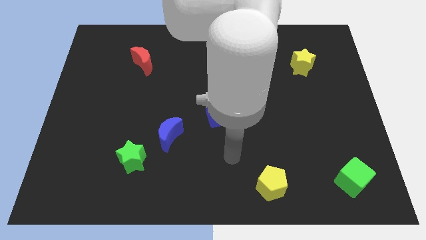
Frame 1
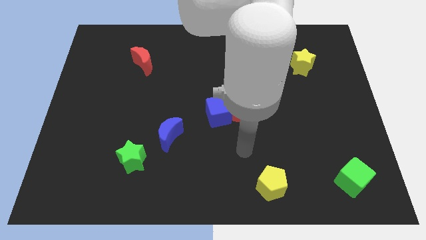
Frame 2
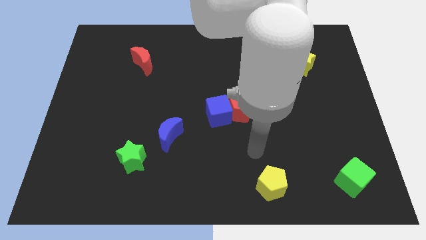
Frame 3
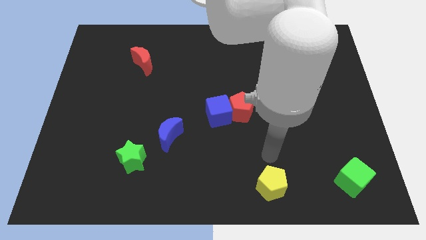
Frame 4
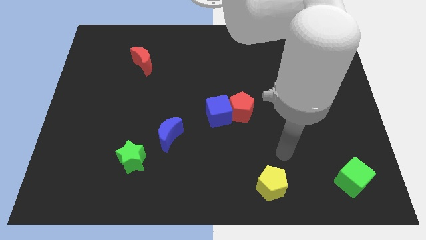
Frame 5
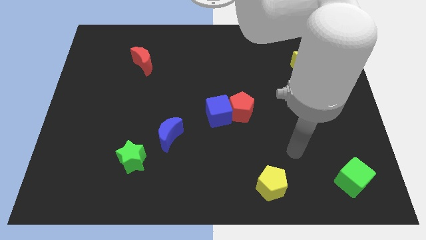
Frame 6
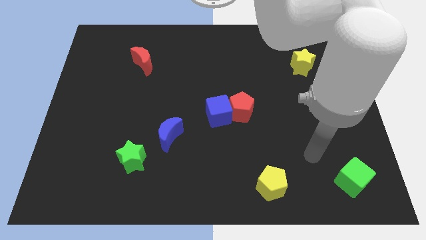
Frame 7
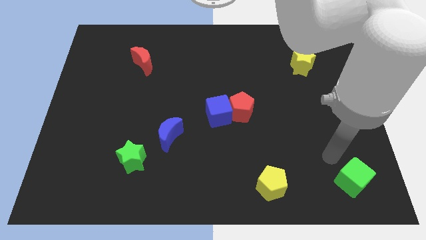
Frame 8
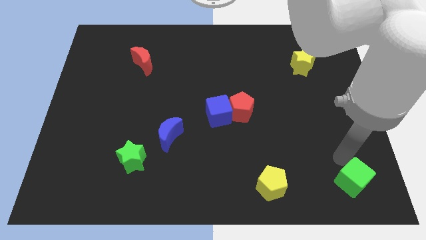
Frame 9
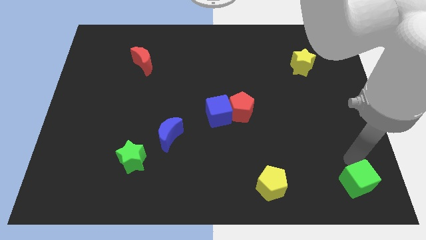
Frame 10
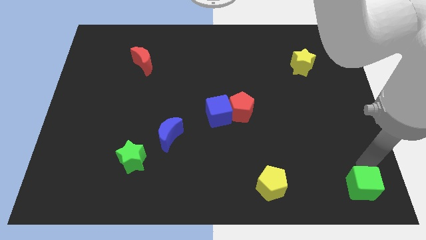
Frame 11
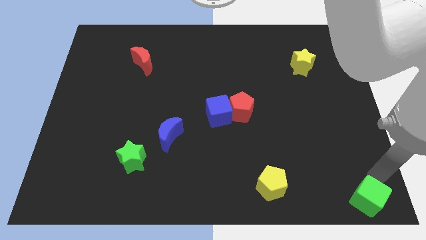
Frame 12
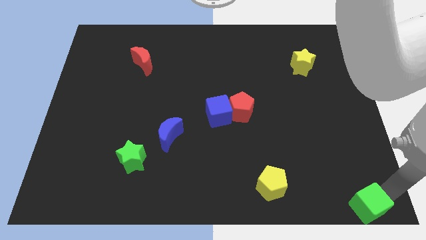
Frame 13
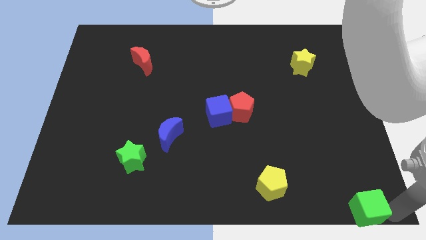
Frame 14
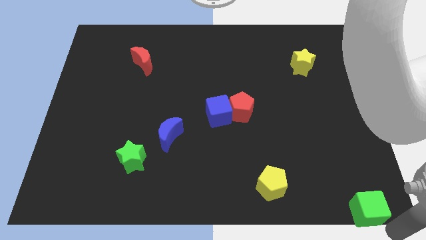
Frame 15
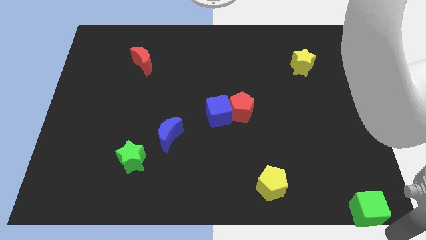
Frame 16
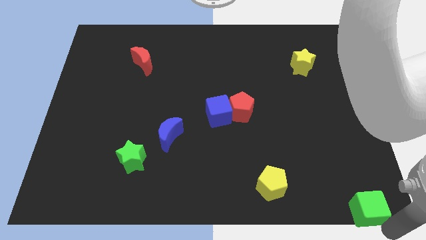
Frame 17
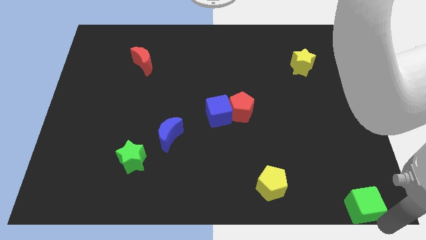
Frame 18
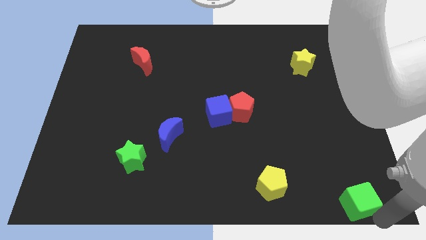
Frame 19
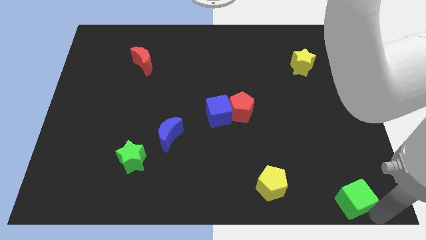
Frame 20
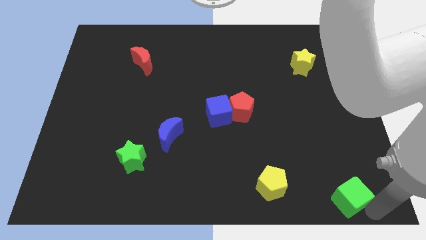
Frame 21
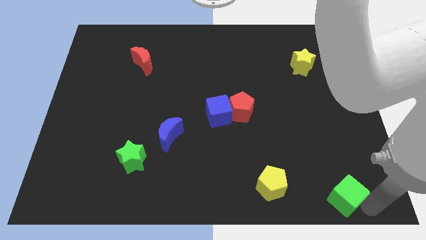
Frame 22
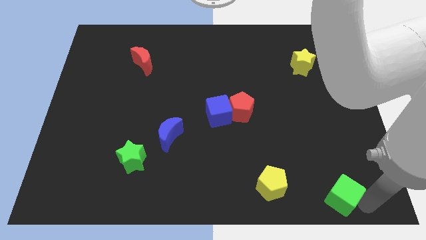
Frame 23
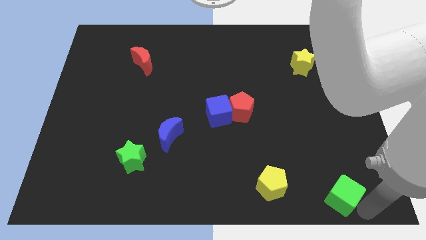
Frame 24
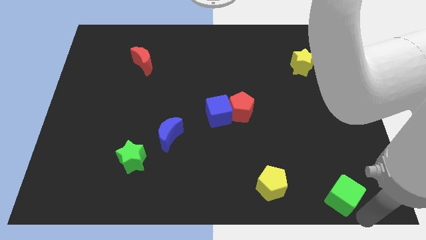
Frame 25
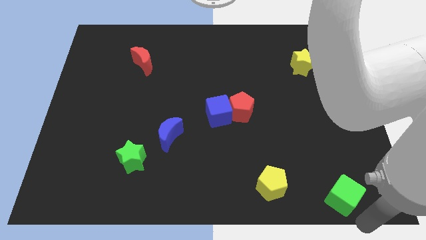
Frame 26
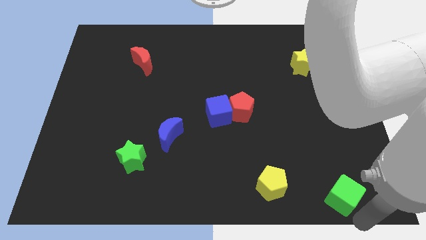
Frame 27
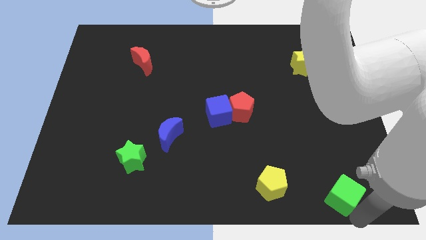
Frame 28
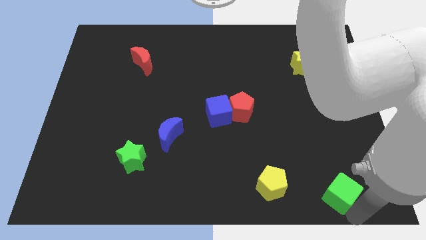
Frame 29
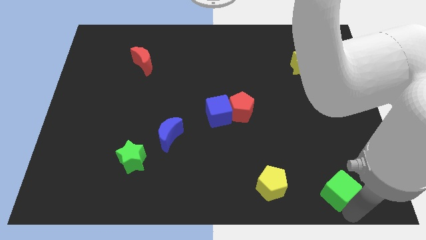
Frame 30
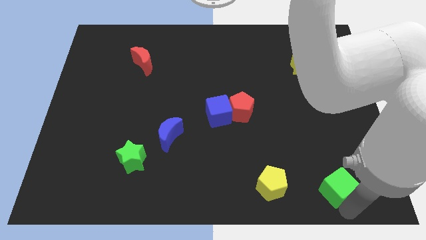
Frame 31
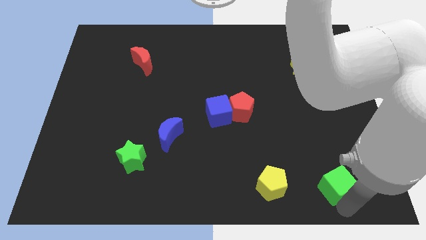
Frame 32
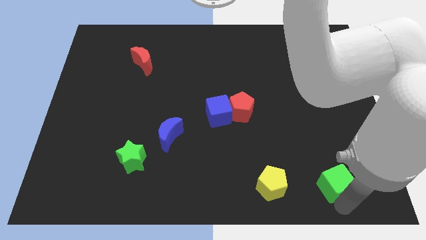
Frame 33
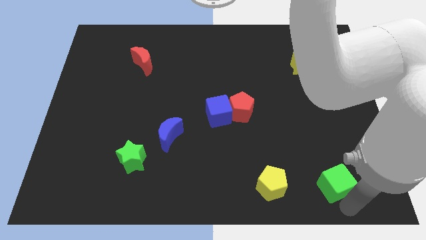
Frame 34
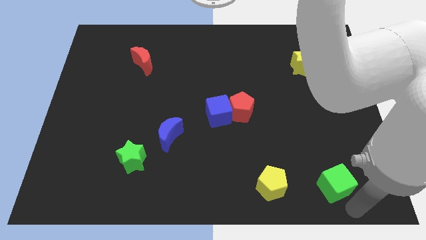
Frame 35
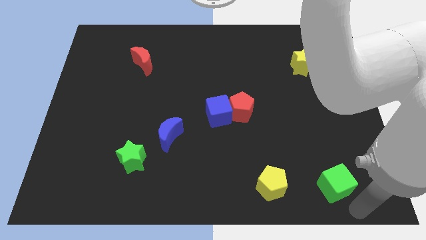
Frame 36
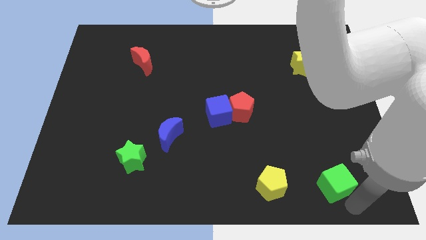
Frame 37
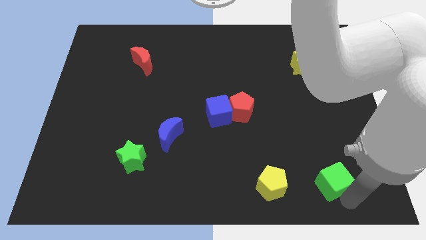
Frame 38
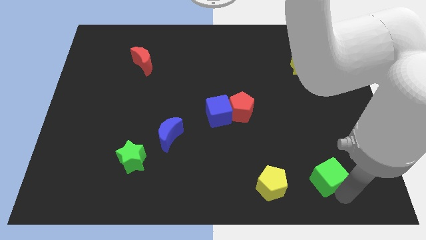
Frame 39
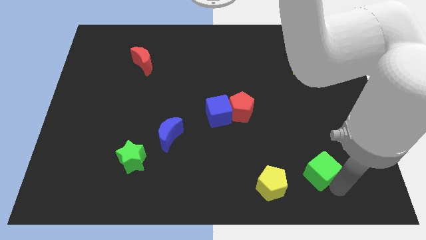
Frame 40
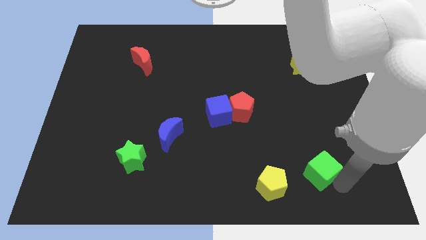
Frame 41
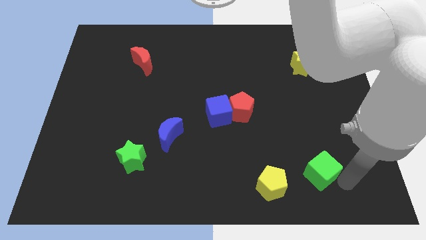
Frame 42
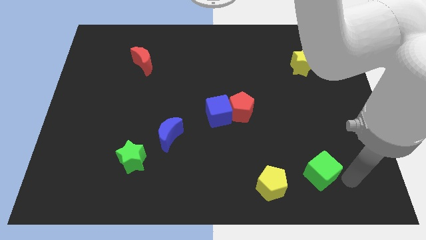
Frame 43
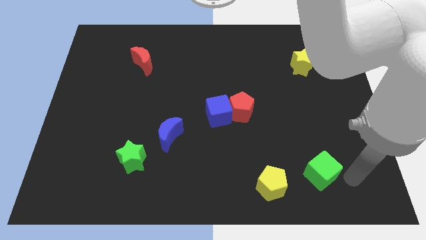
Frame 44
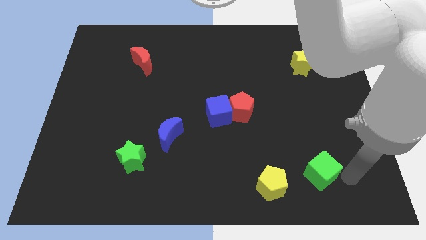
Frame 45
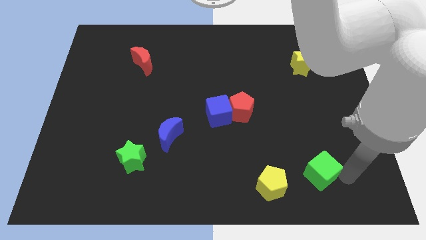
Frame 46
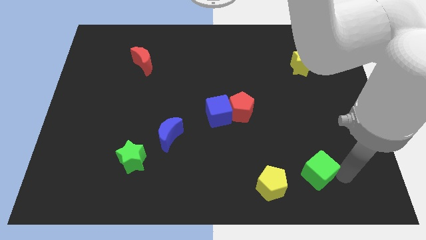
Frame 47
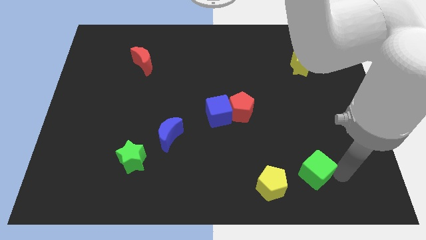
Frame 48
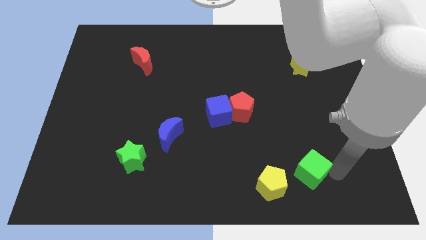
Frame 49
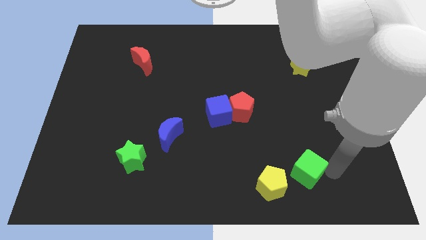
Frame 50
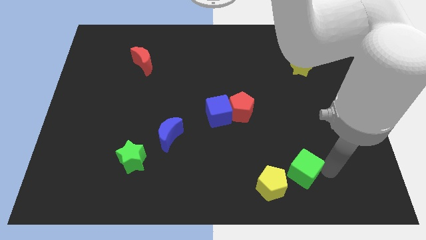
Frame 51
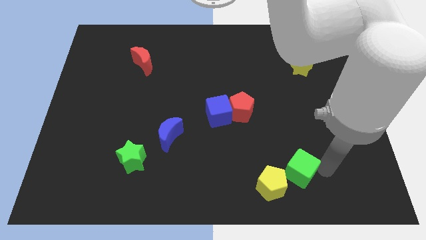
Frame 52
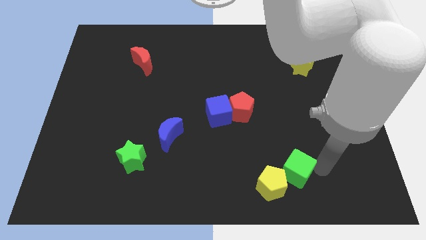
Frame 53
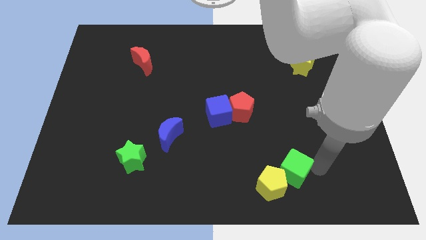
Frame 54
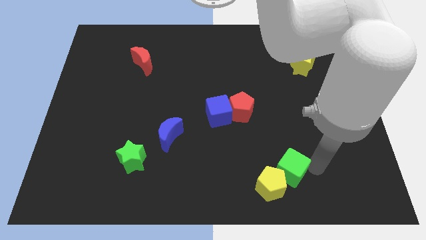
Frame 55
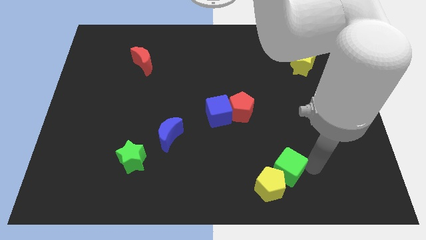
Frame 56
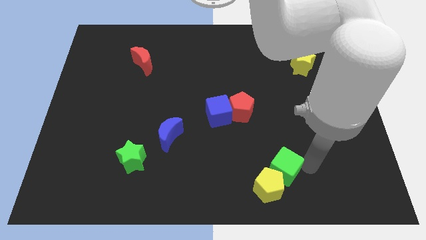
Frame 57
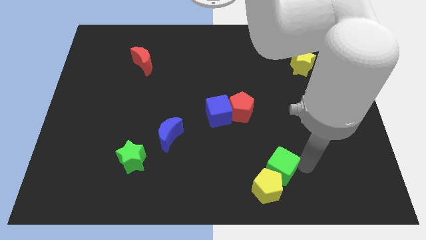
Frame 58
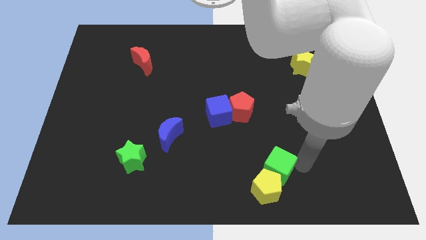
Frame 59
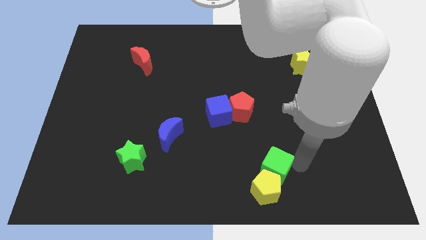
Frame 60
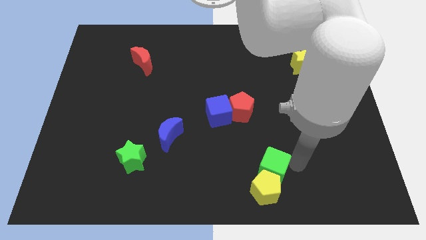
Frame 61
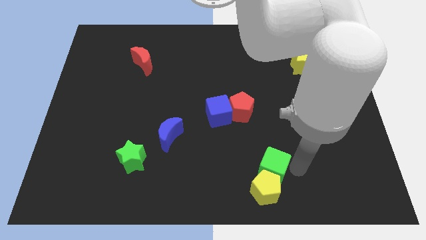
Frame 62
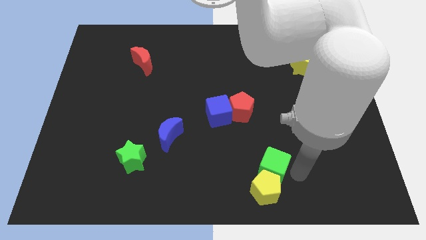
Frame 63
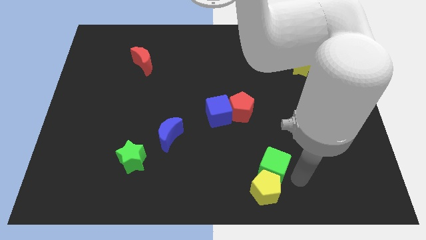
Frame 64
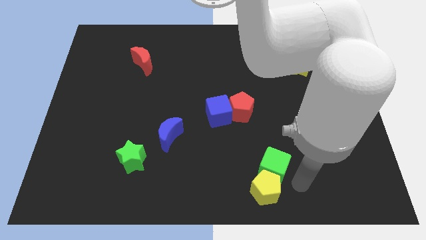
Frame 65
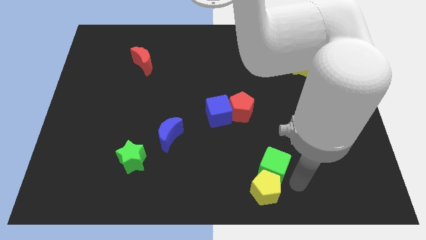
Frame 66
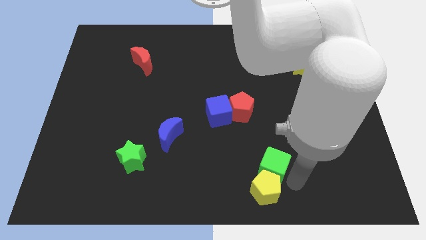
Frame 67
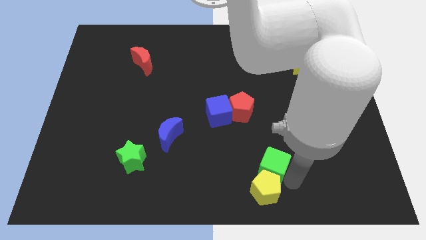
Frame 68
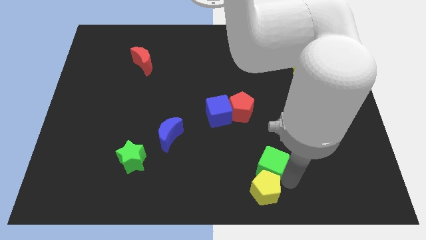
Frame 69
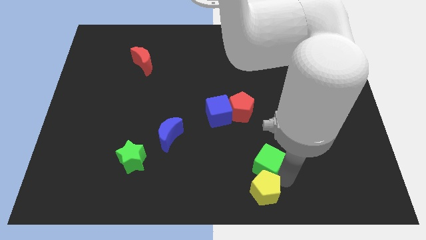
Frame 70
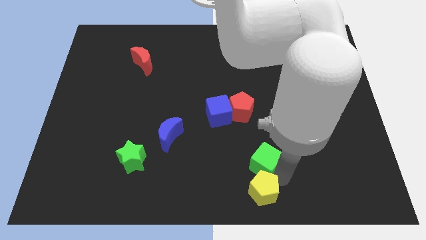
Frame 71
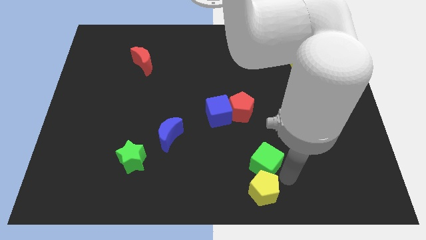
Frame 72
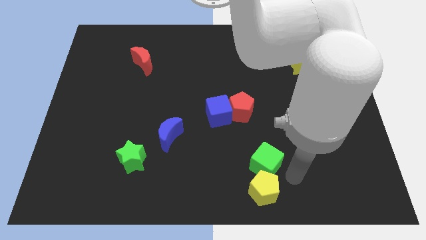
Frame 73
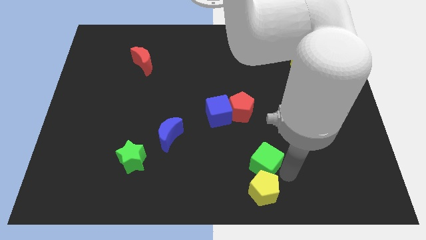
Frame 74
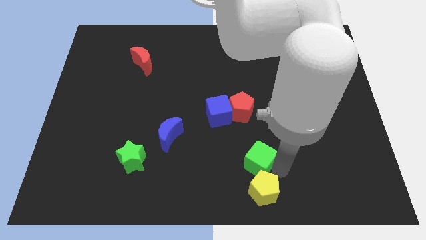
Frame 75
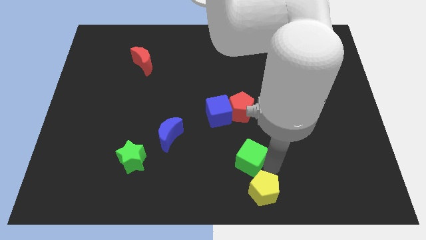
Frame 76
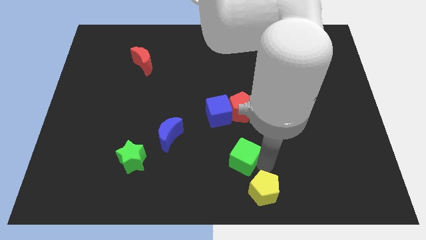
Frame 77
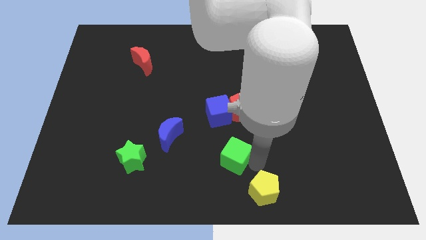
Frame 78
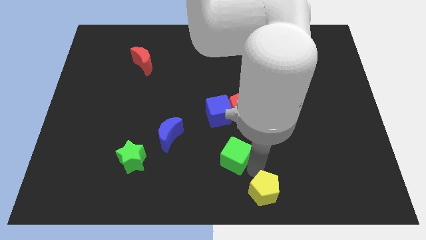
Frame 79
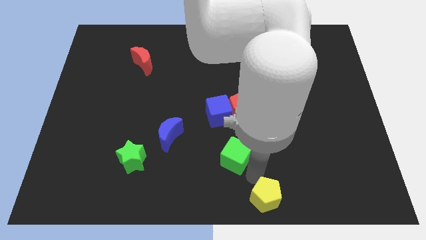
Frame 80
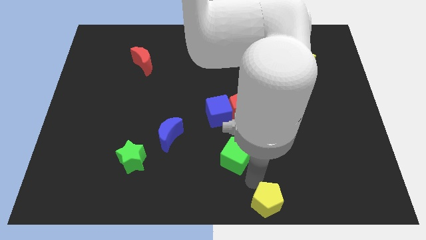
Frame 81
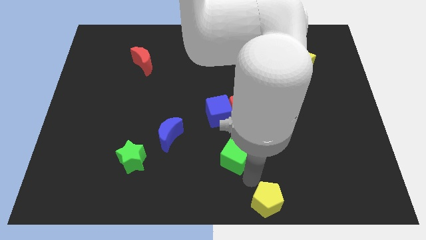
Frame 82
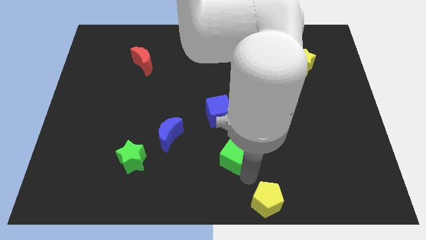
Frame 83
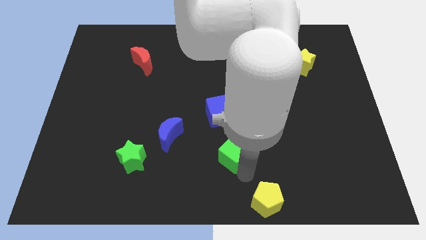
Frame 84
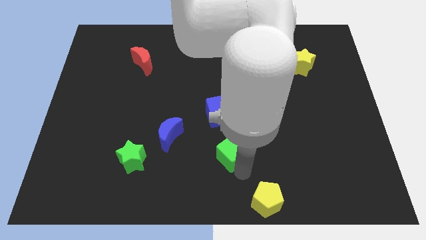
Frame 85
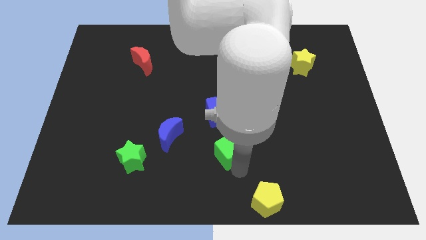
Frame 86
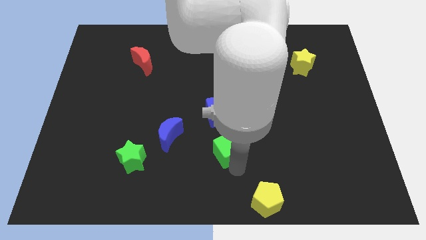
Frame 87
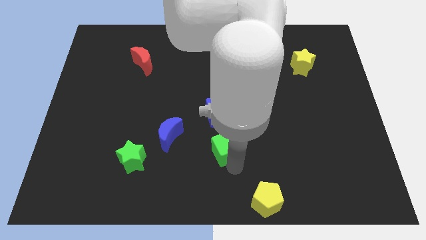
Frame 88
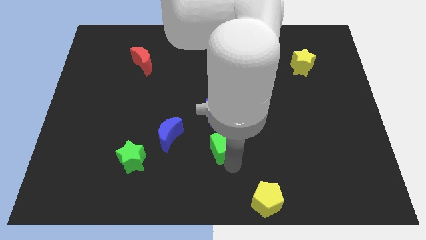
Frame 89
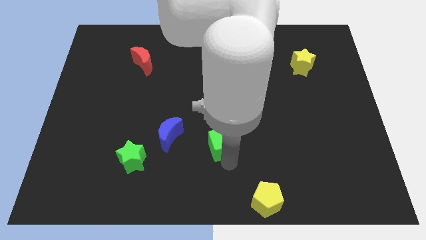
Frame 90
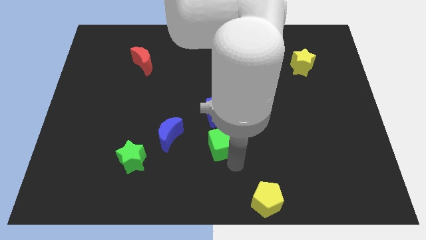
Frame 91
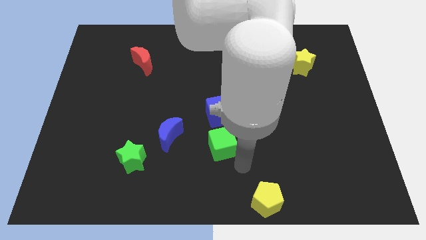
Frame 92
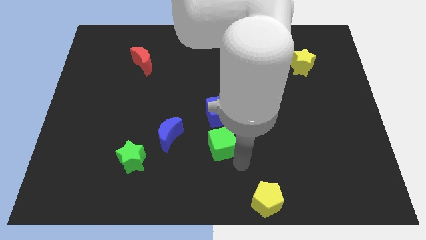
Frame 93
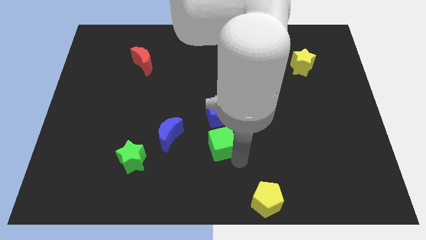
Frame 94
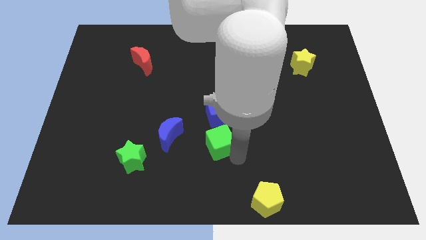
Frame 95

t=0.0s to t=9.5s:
put the green cube to the center of the board
